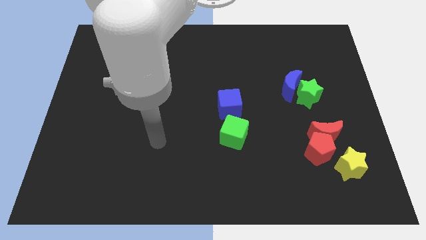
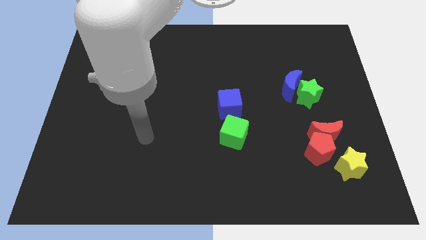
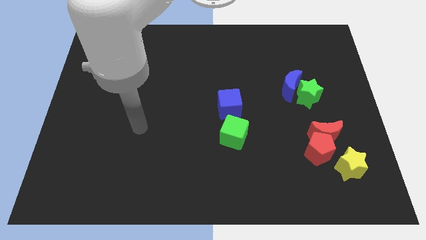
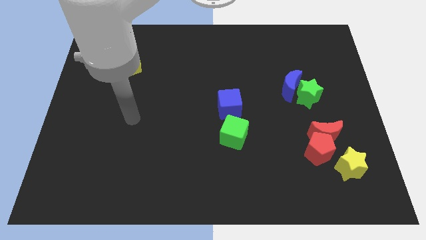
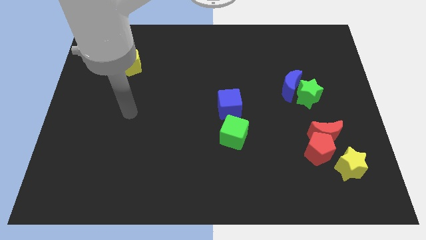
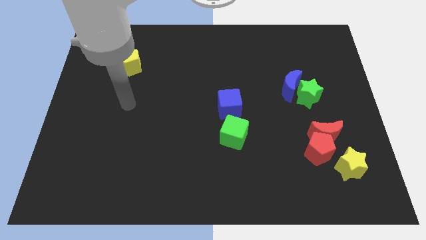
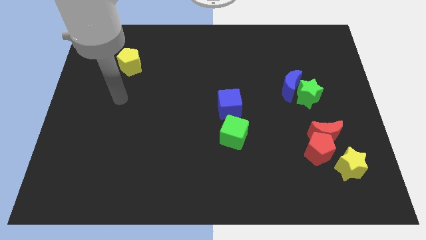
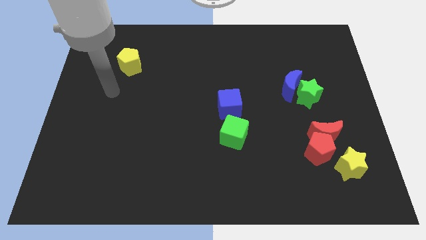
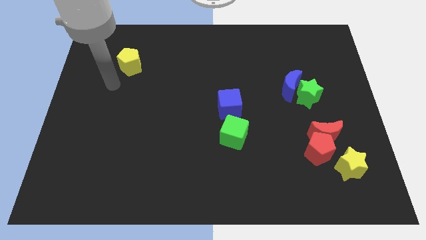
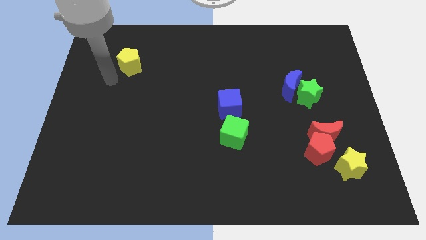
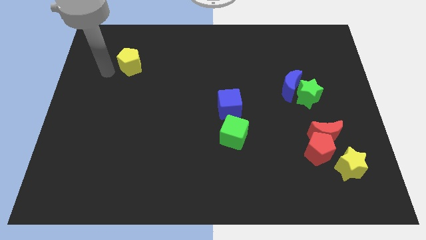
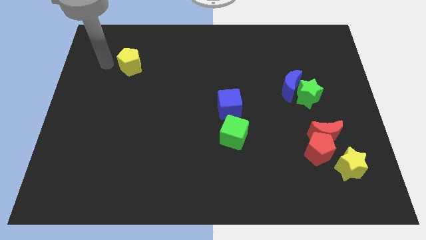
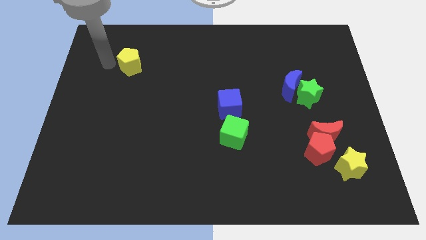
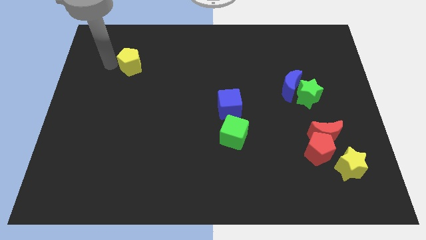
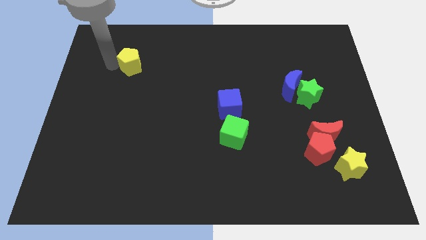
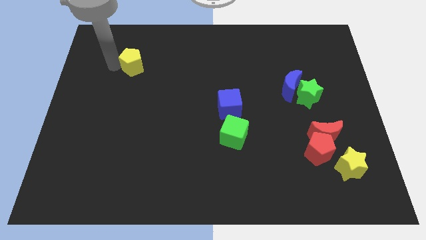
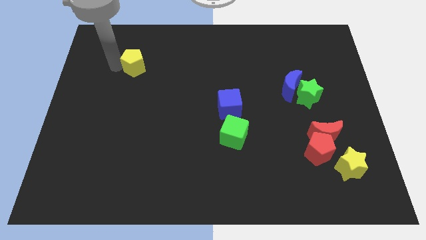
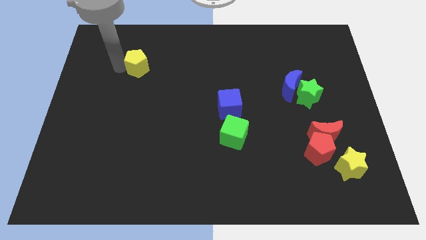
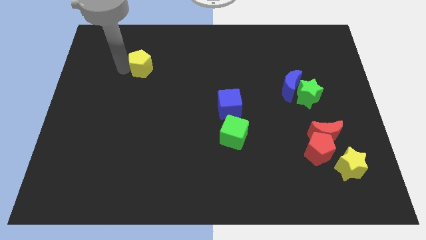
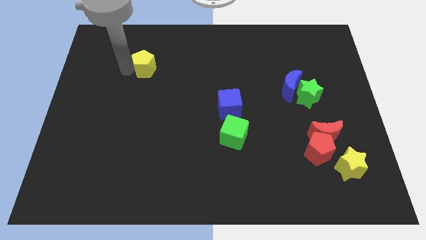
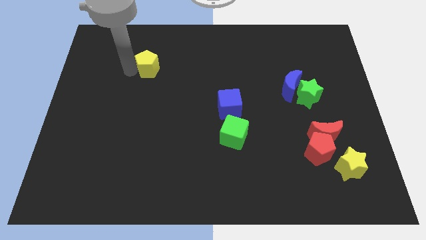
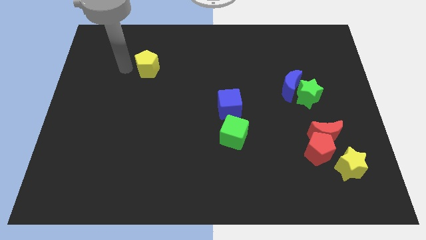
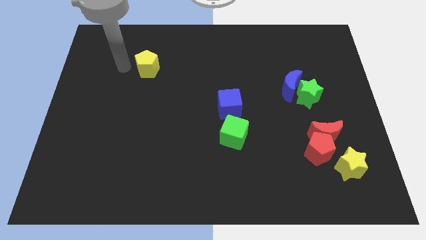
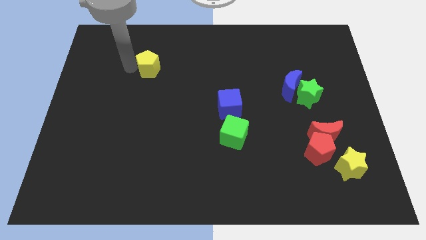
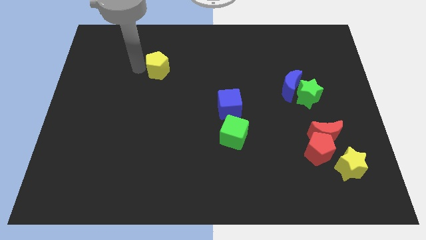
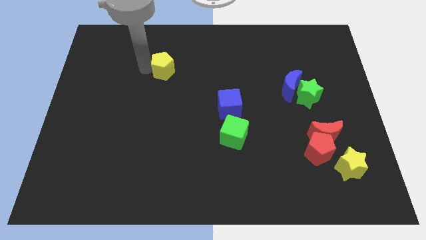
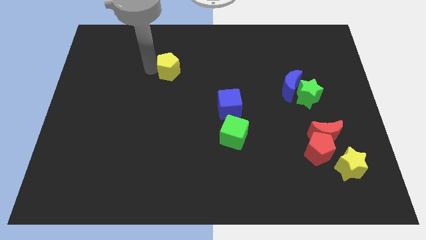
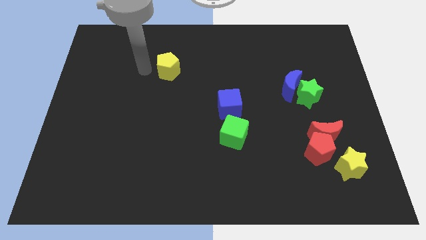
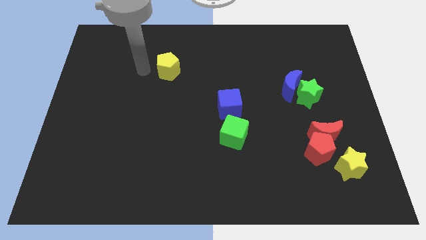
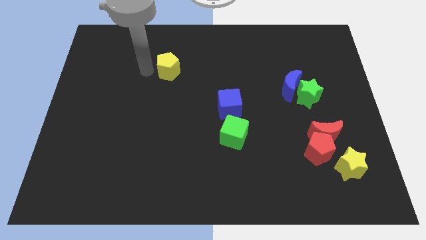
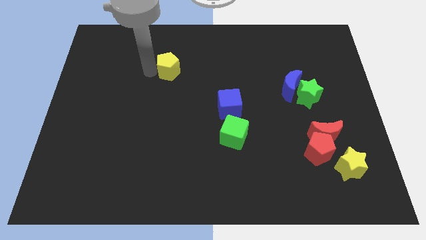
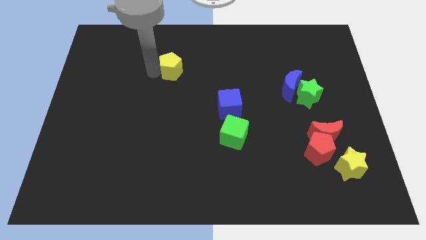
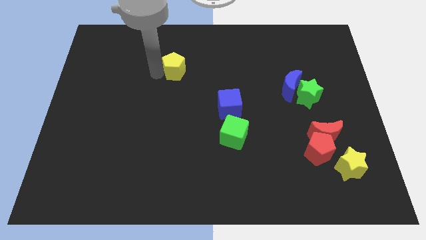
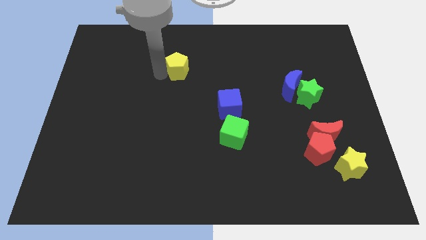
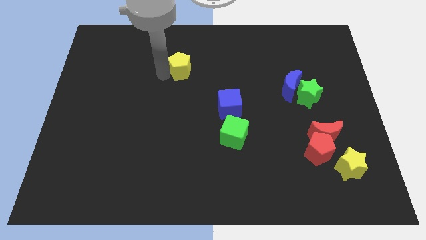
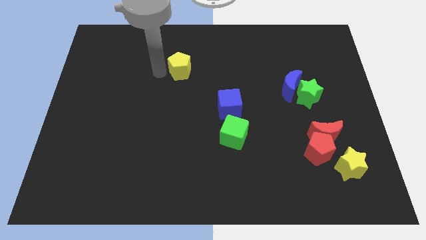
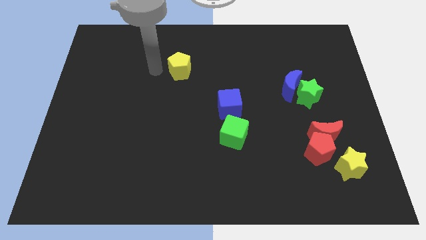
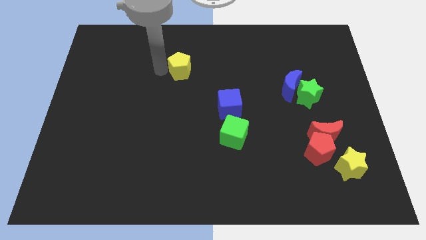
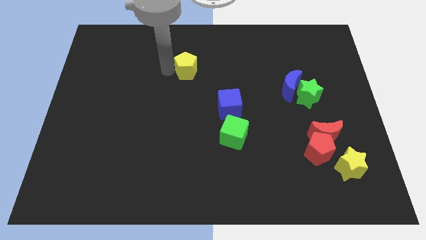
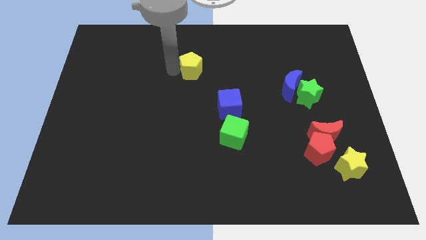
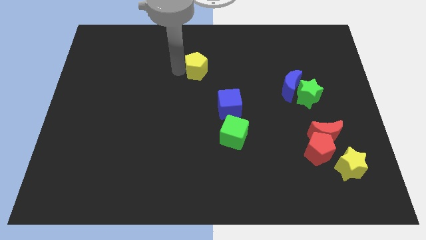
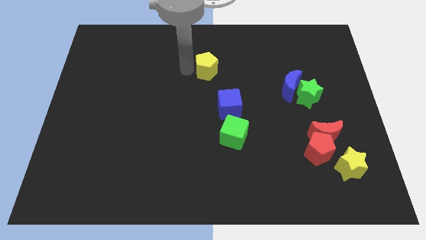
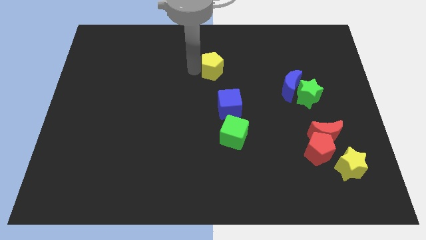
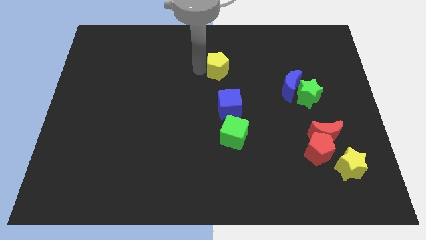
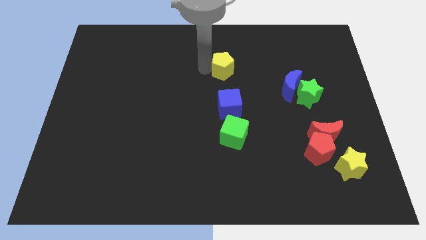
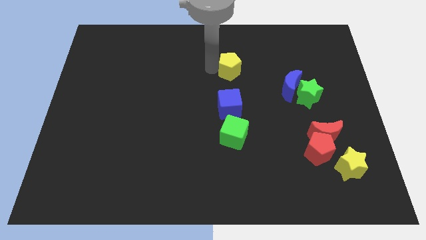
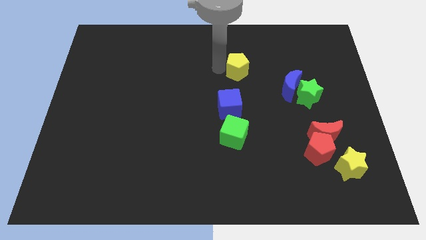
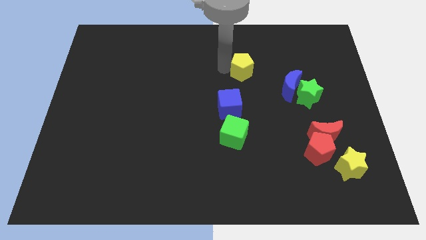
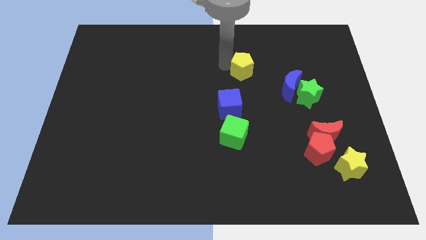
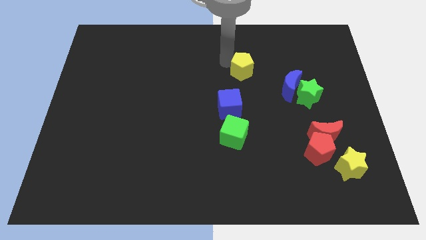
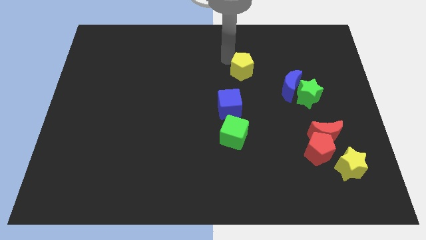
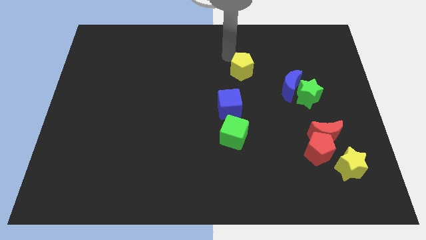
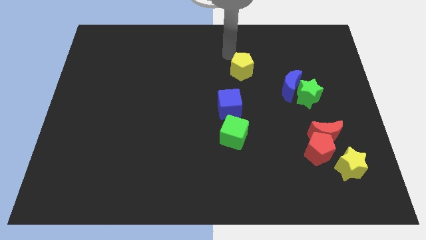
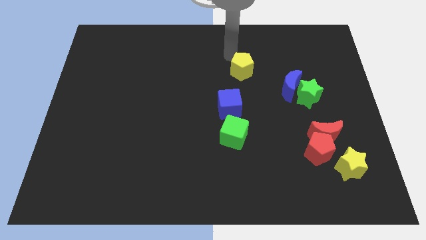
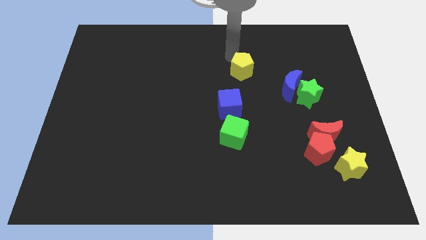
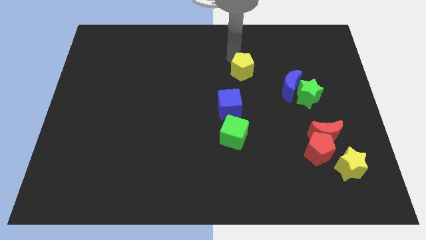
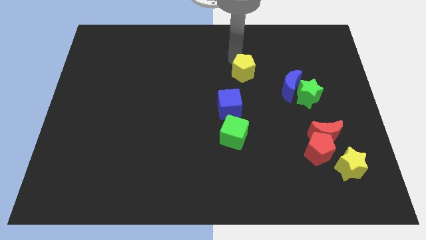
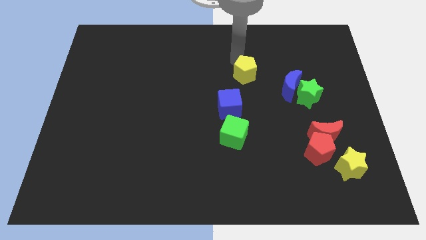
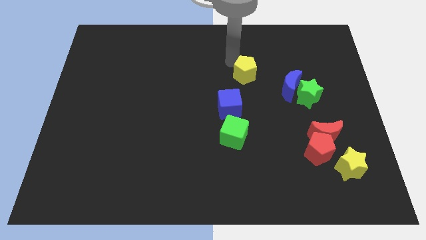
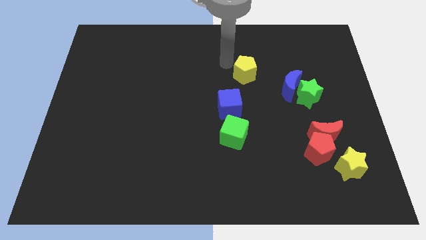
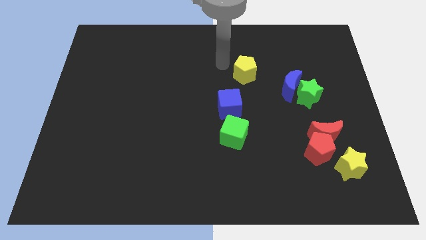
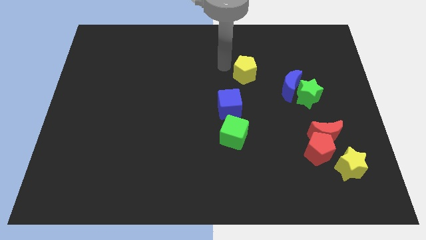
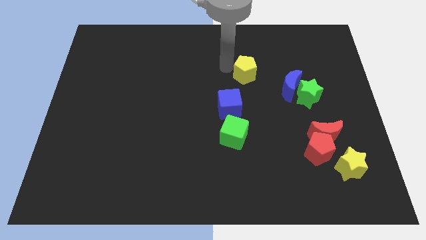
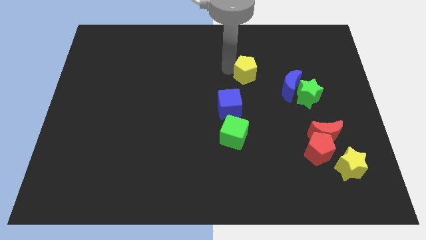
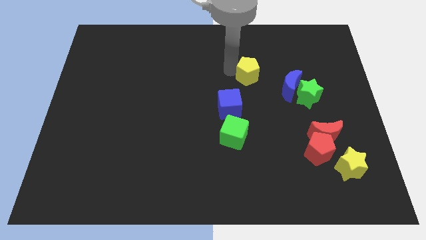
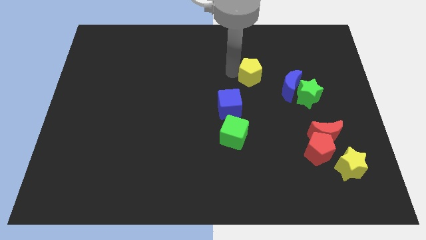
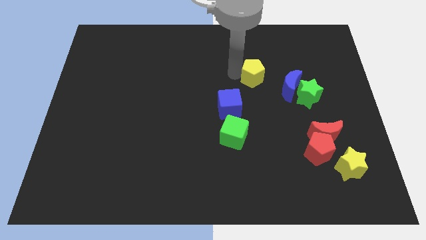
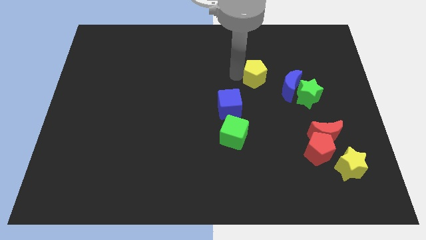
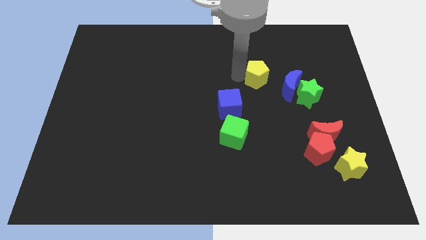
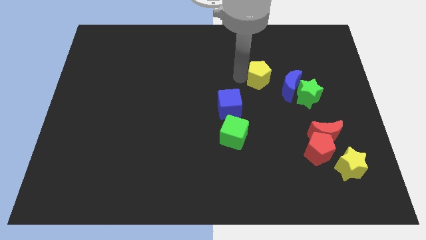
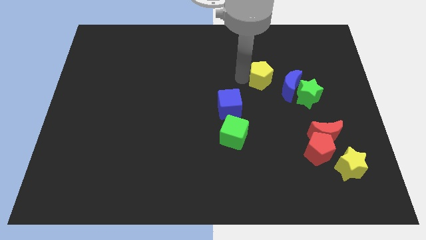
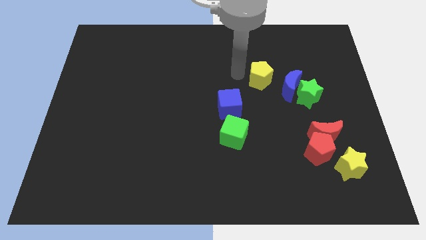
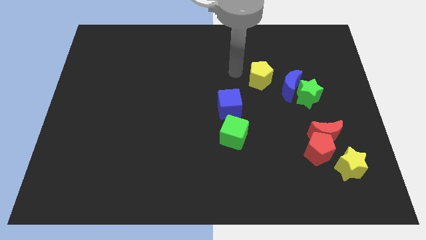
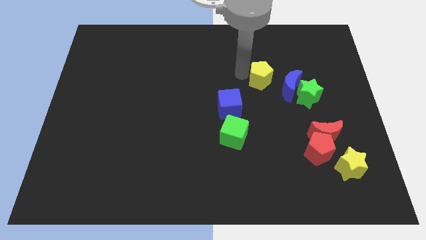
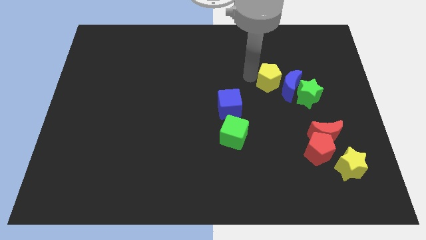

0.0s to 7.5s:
slide the yellow pentagon to the blue moon
